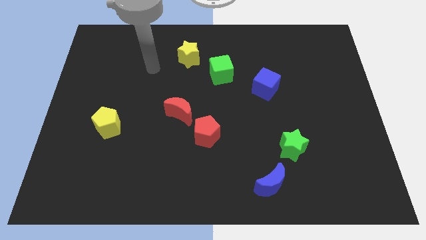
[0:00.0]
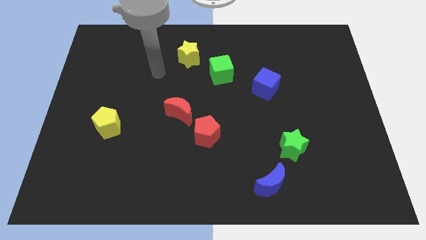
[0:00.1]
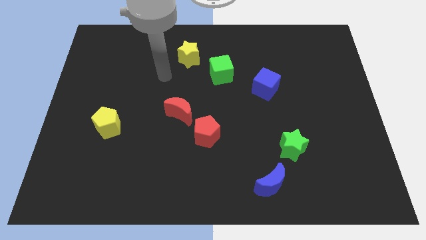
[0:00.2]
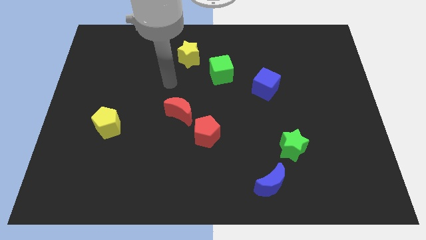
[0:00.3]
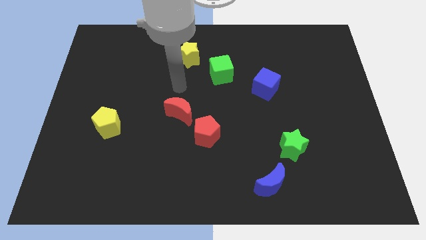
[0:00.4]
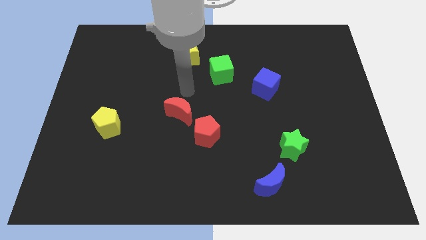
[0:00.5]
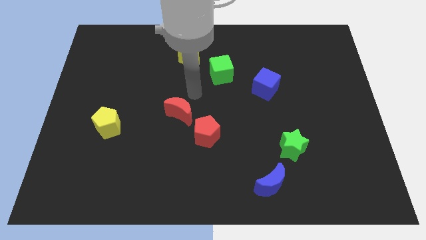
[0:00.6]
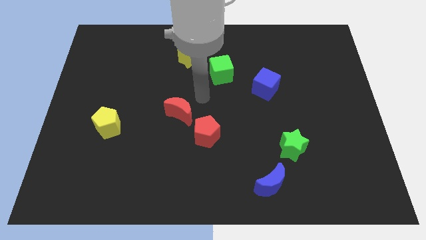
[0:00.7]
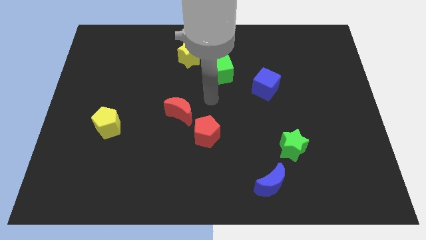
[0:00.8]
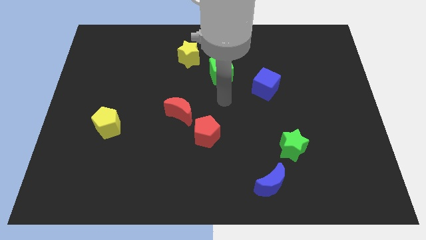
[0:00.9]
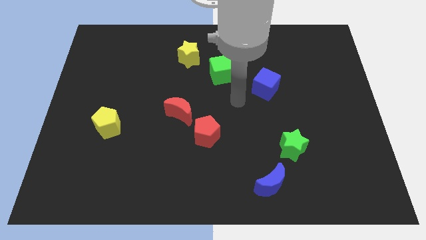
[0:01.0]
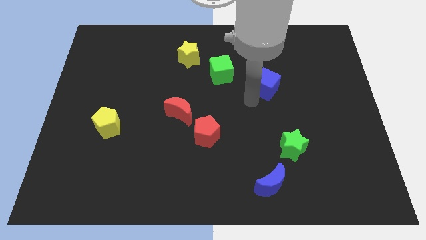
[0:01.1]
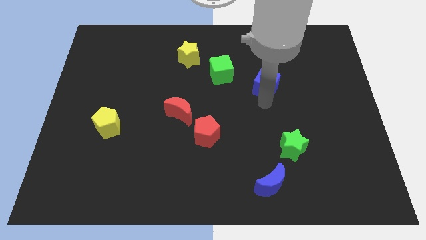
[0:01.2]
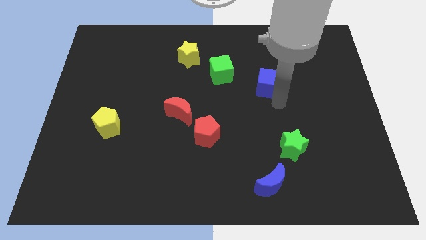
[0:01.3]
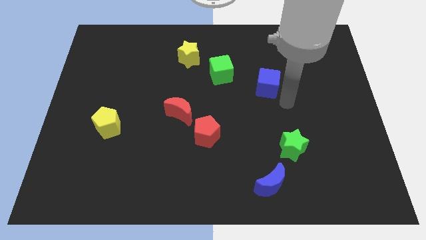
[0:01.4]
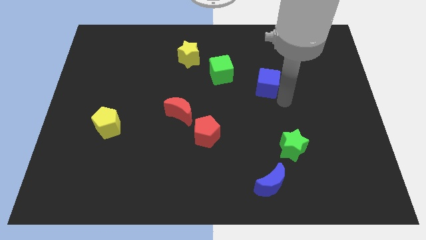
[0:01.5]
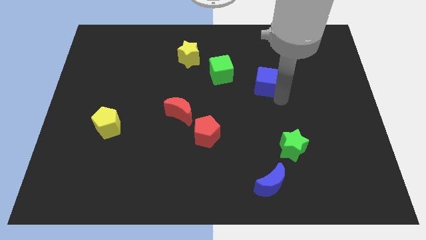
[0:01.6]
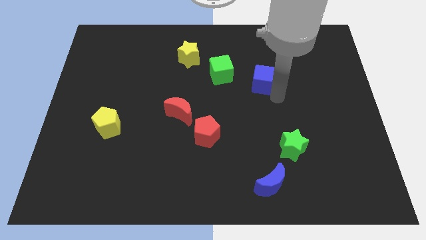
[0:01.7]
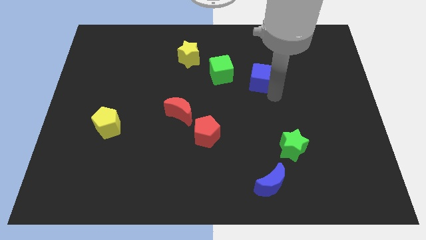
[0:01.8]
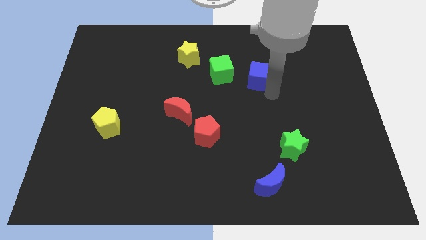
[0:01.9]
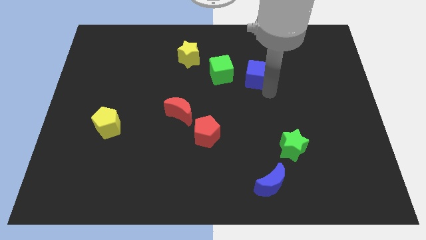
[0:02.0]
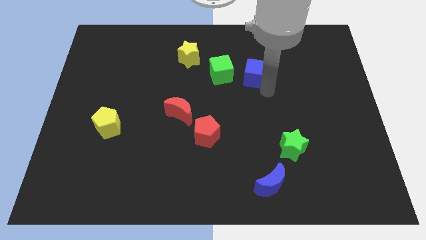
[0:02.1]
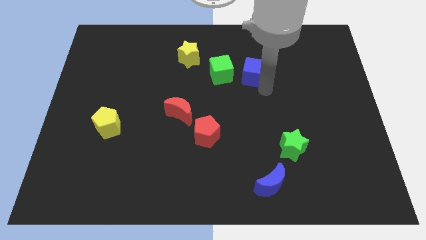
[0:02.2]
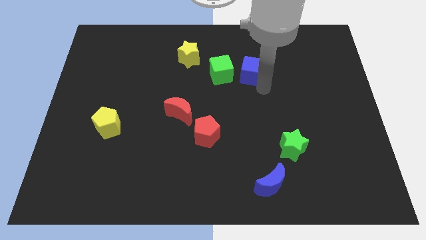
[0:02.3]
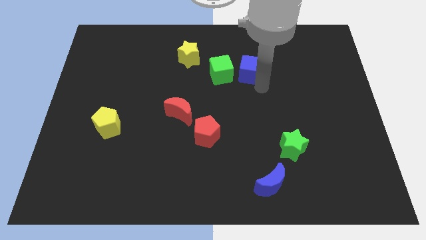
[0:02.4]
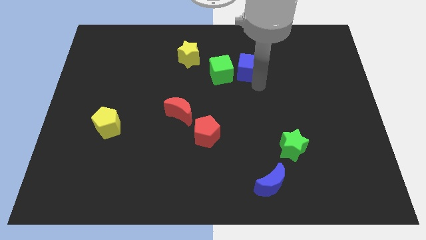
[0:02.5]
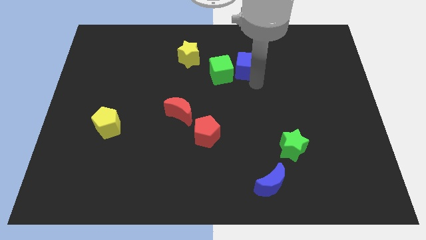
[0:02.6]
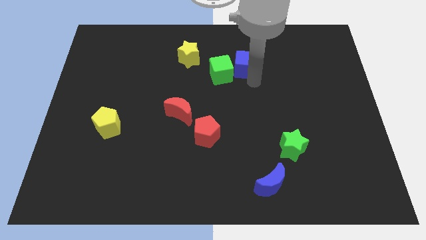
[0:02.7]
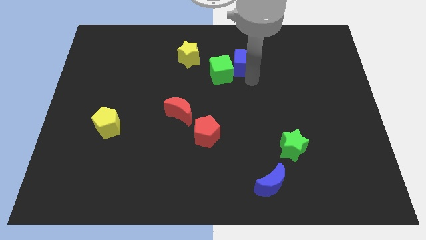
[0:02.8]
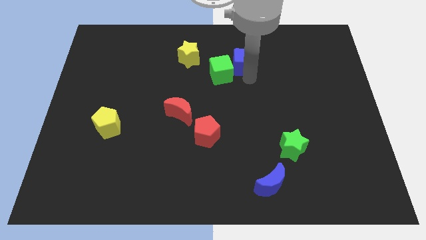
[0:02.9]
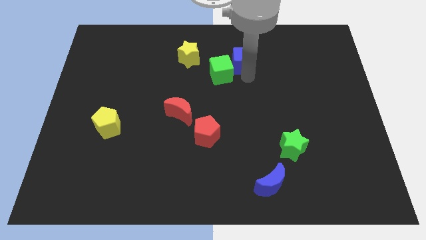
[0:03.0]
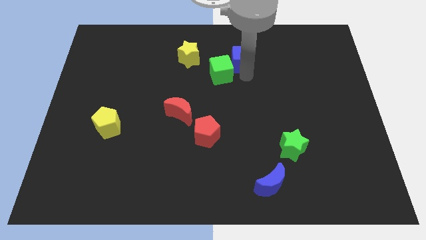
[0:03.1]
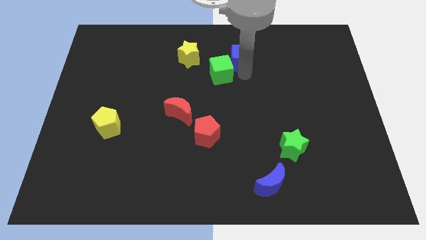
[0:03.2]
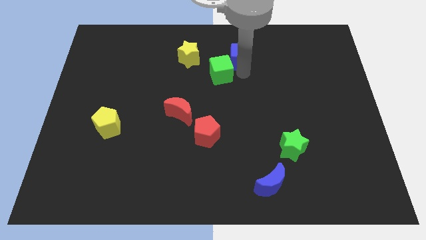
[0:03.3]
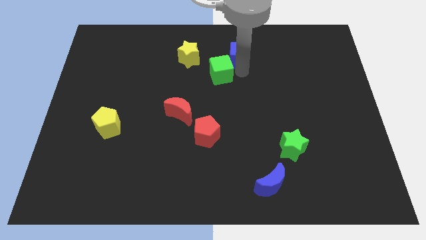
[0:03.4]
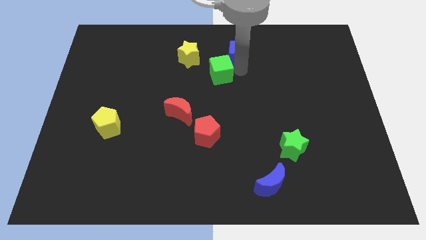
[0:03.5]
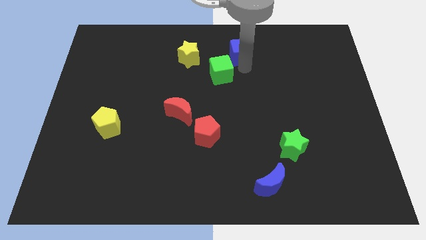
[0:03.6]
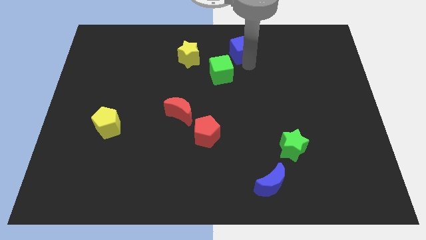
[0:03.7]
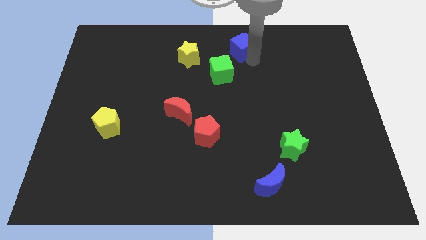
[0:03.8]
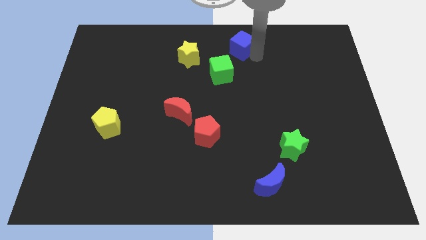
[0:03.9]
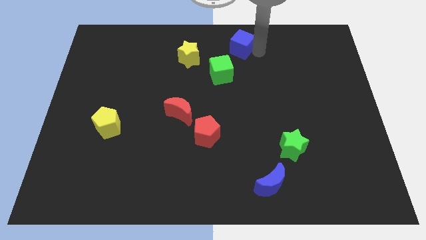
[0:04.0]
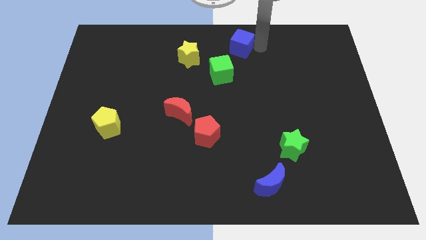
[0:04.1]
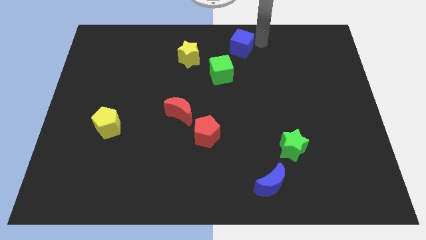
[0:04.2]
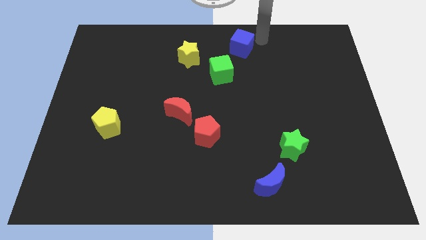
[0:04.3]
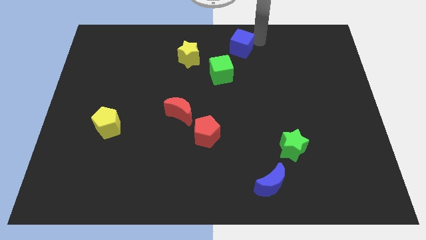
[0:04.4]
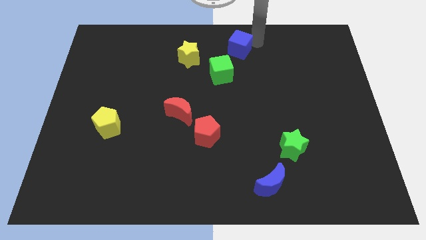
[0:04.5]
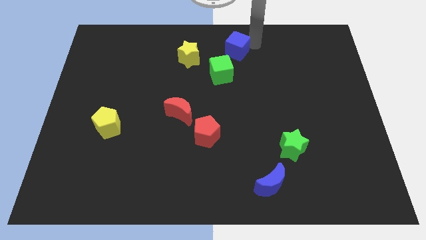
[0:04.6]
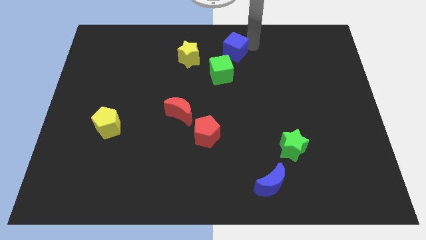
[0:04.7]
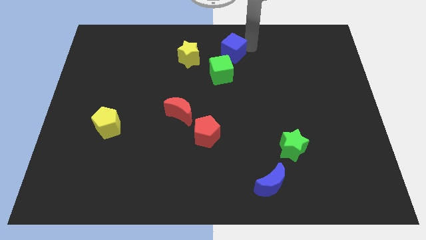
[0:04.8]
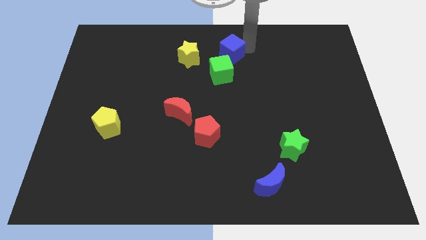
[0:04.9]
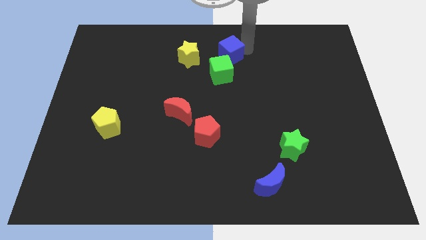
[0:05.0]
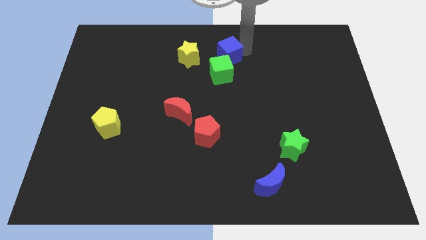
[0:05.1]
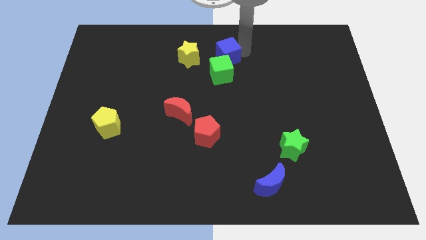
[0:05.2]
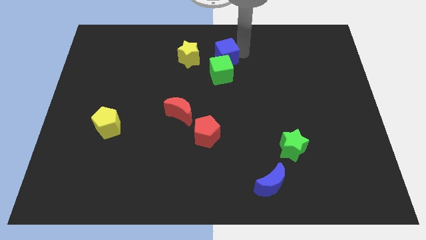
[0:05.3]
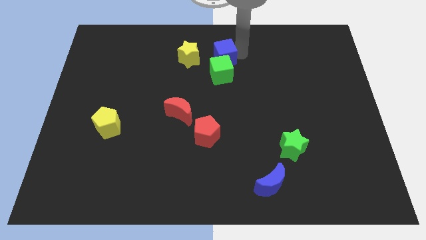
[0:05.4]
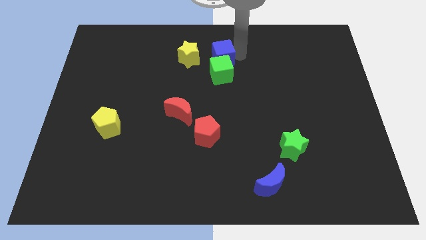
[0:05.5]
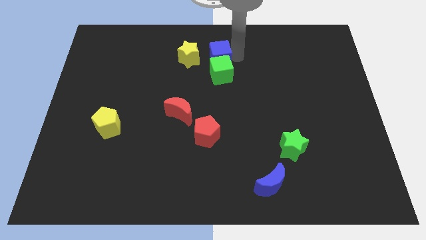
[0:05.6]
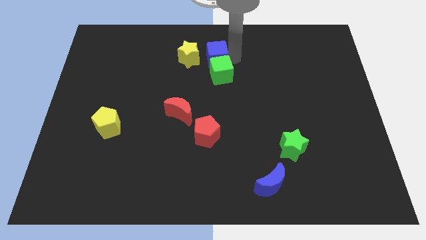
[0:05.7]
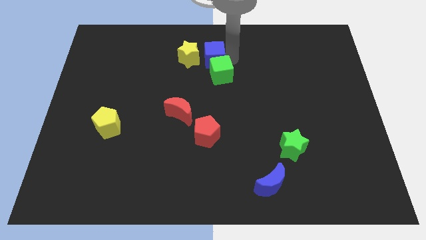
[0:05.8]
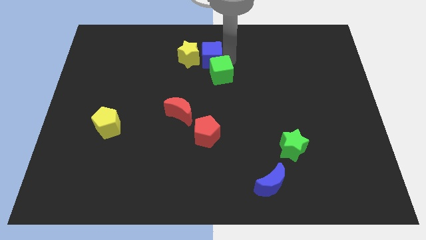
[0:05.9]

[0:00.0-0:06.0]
put the blue cube towards the yellow star

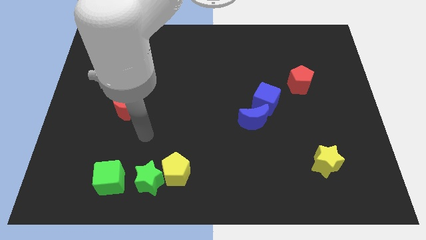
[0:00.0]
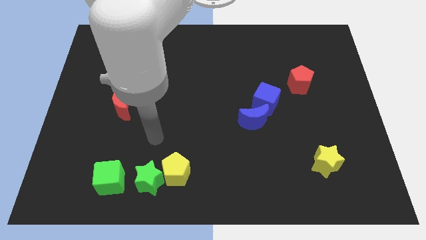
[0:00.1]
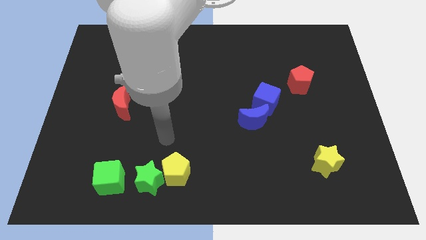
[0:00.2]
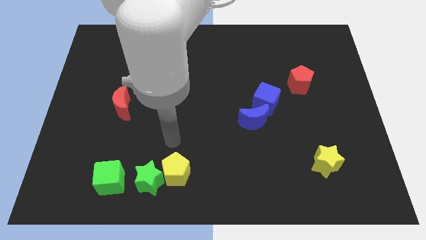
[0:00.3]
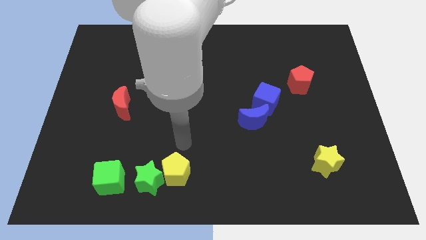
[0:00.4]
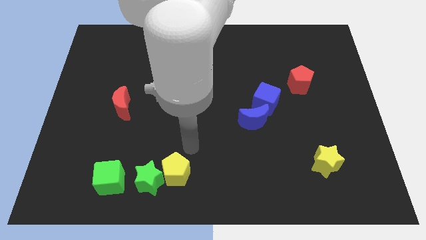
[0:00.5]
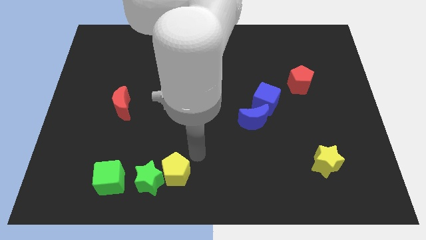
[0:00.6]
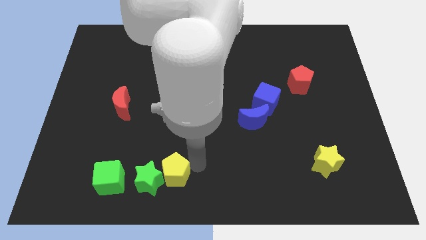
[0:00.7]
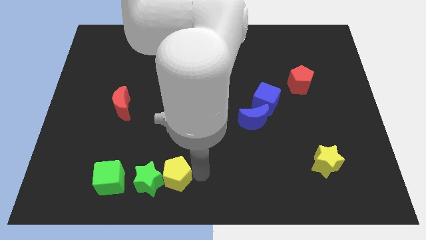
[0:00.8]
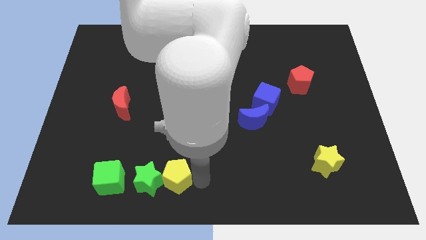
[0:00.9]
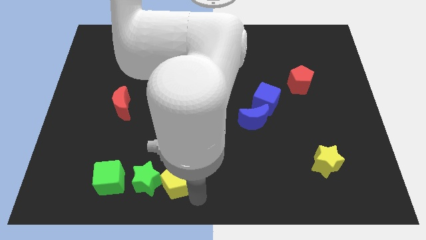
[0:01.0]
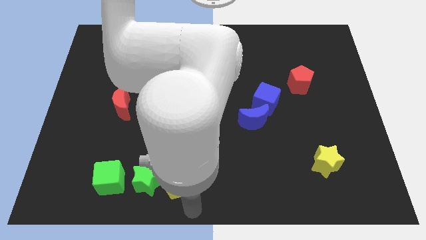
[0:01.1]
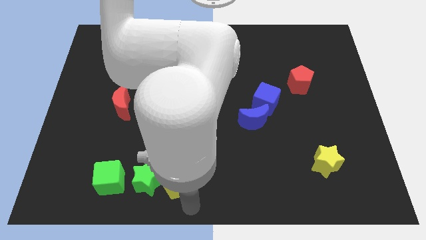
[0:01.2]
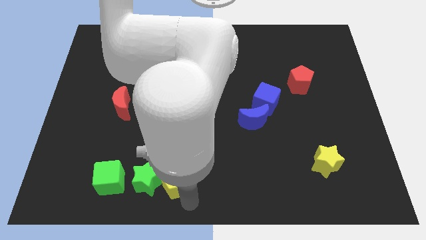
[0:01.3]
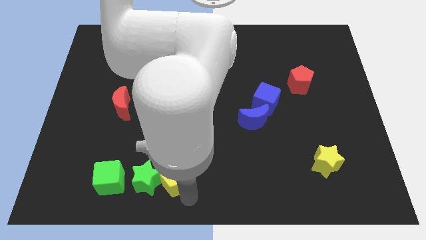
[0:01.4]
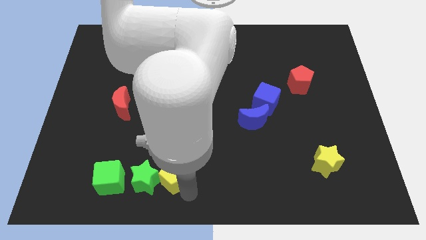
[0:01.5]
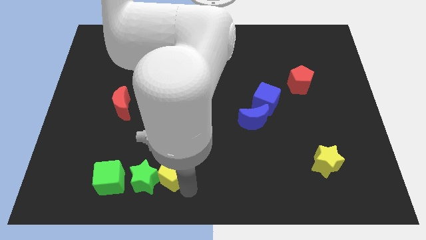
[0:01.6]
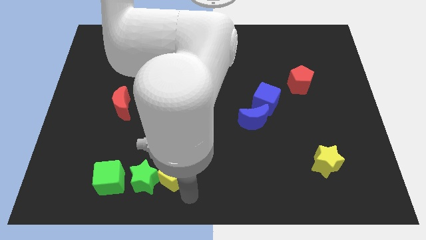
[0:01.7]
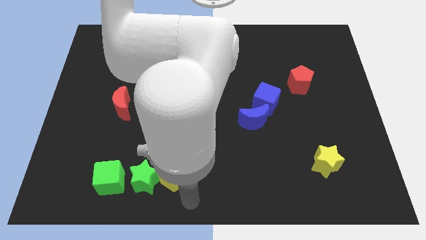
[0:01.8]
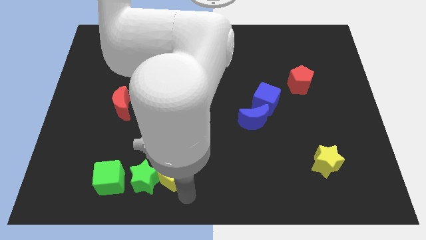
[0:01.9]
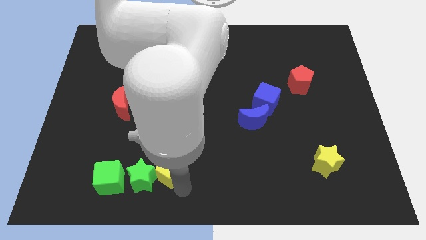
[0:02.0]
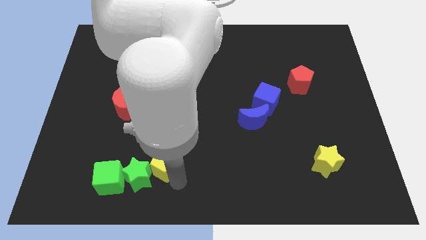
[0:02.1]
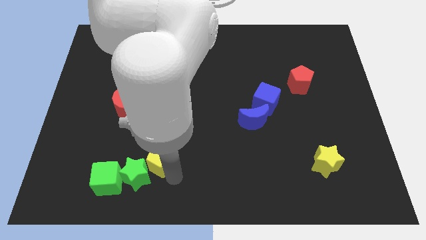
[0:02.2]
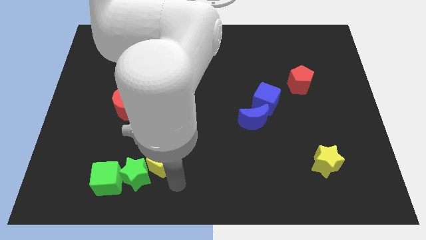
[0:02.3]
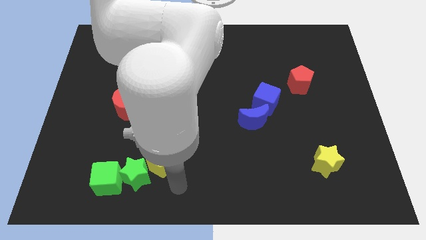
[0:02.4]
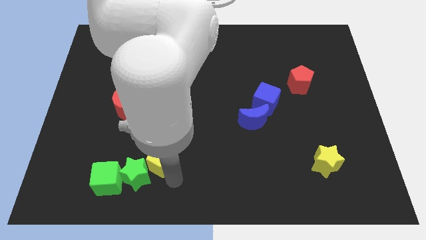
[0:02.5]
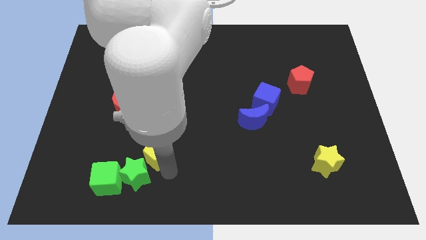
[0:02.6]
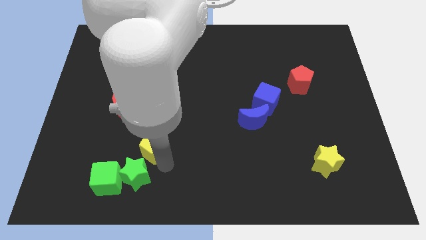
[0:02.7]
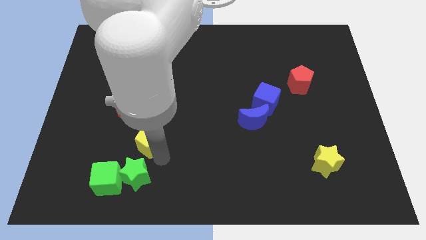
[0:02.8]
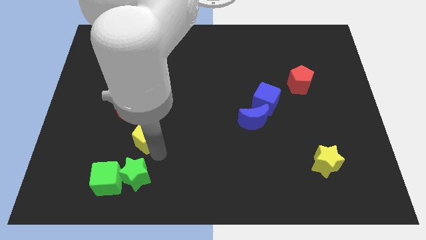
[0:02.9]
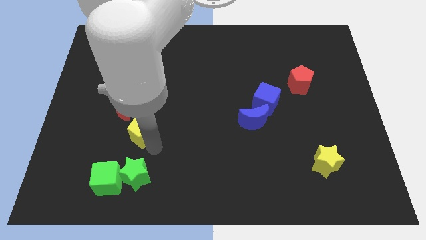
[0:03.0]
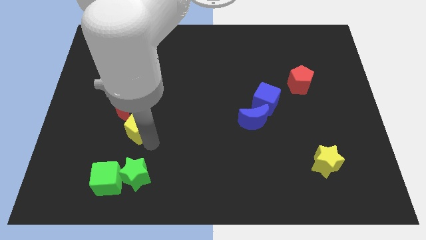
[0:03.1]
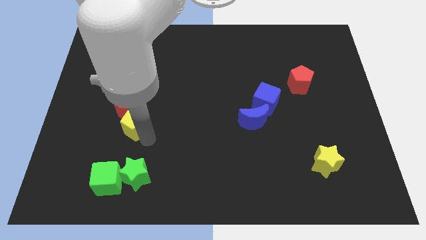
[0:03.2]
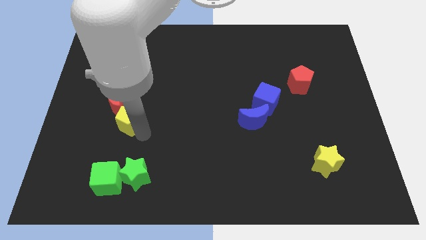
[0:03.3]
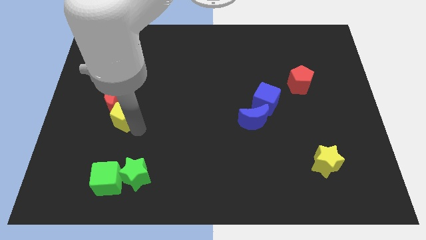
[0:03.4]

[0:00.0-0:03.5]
push the yellow pentagon next to the red moon
